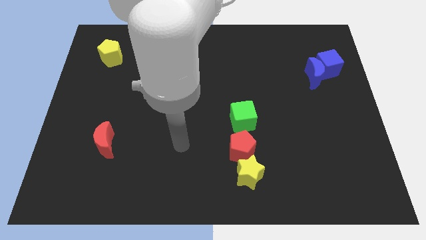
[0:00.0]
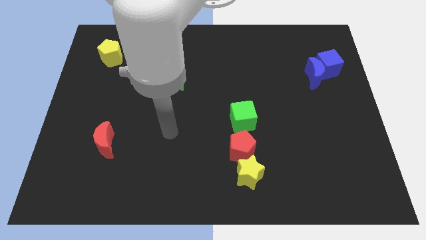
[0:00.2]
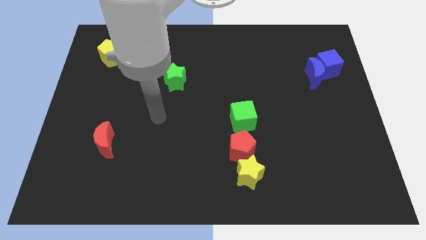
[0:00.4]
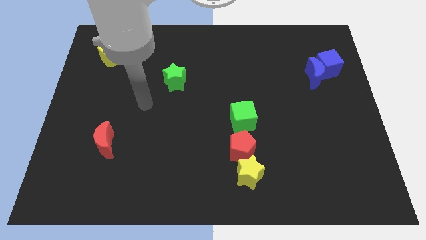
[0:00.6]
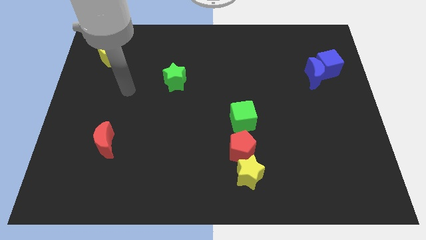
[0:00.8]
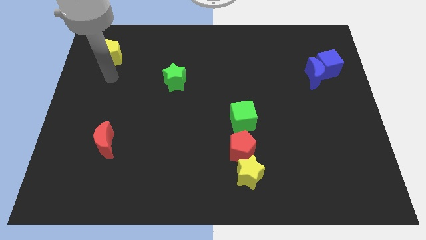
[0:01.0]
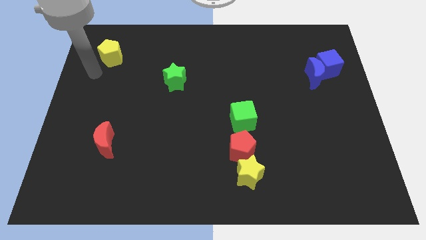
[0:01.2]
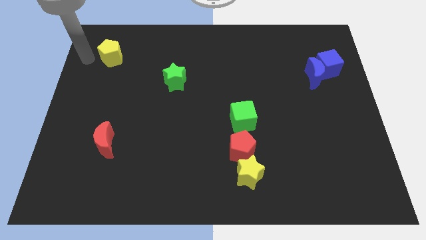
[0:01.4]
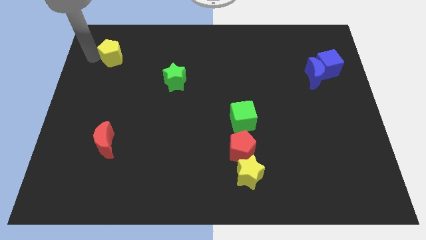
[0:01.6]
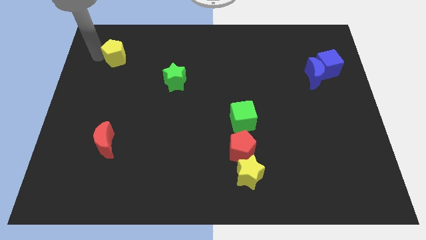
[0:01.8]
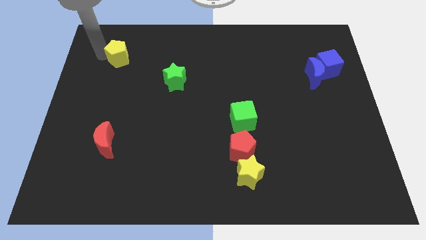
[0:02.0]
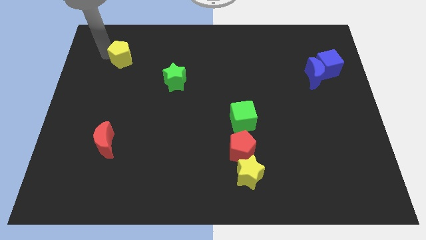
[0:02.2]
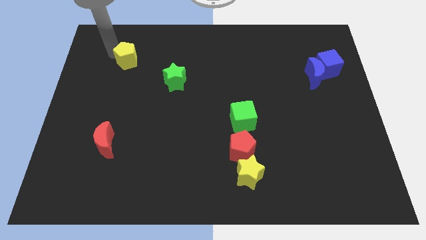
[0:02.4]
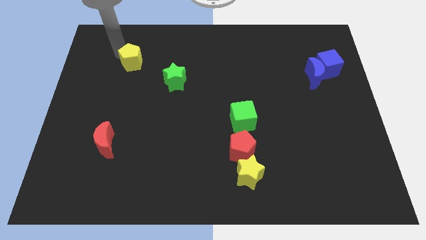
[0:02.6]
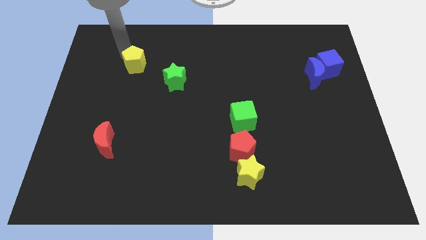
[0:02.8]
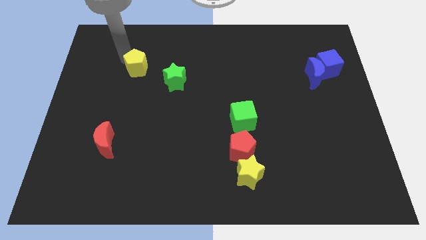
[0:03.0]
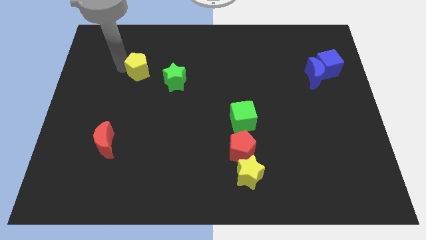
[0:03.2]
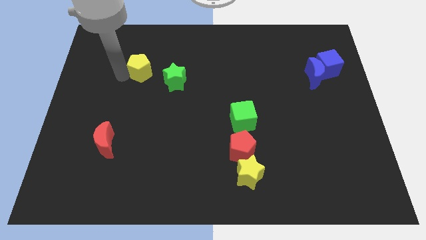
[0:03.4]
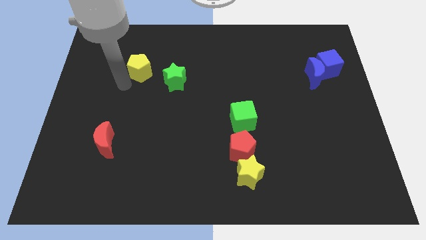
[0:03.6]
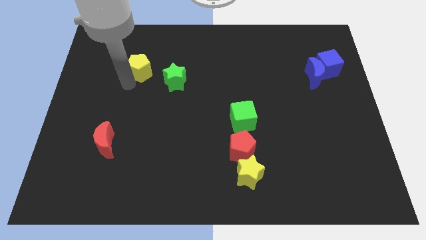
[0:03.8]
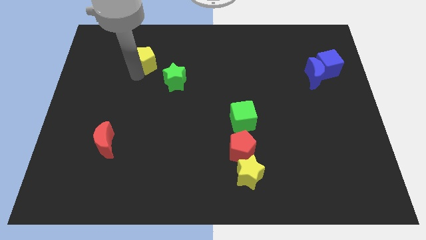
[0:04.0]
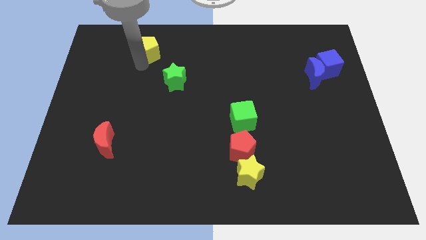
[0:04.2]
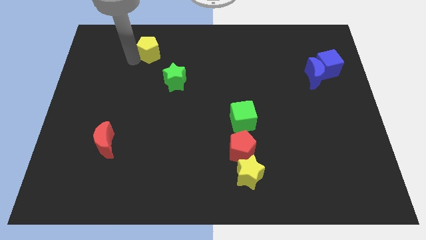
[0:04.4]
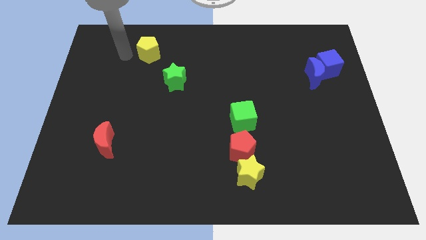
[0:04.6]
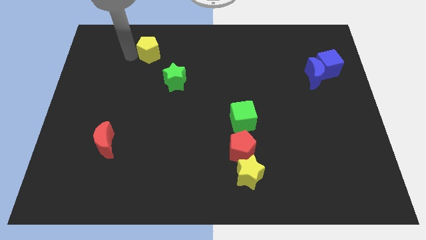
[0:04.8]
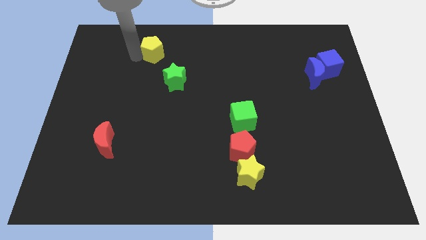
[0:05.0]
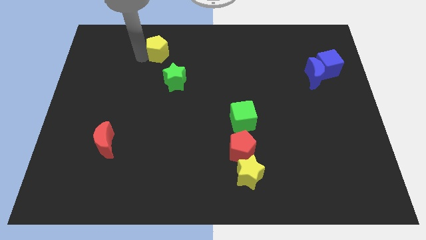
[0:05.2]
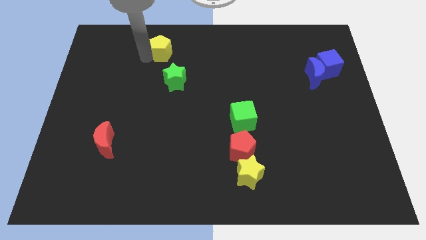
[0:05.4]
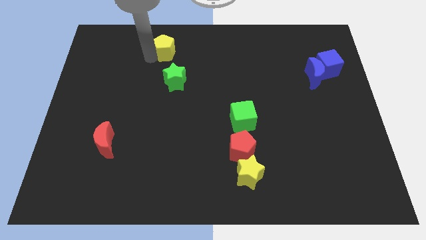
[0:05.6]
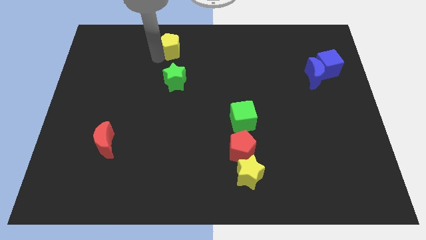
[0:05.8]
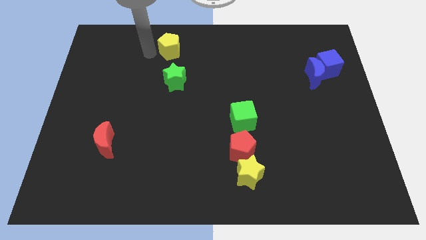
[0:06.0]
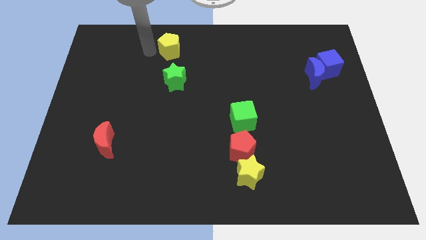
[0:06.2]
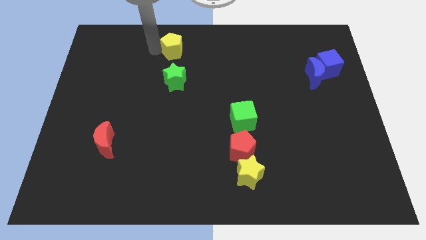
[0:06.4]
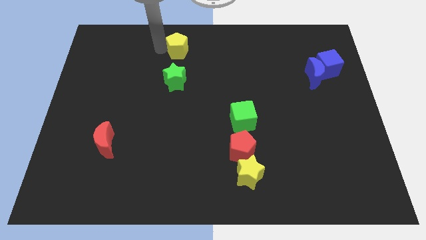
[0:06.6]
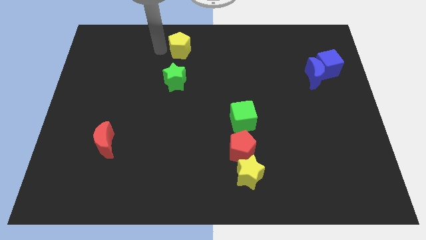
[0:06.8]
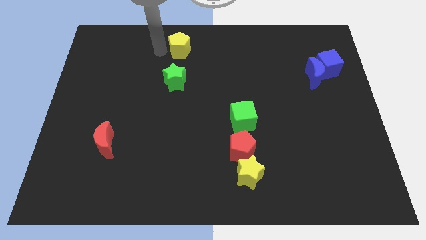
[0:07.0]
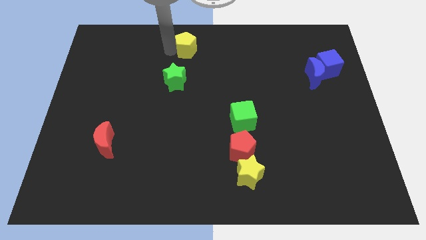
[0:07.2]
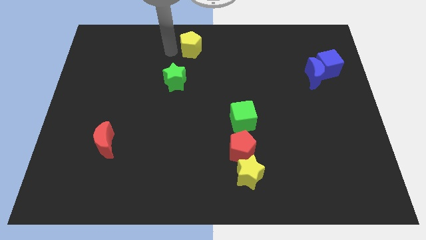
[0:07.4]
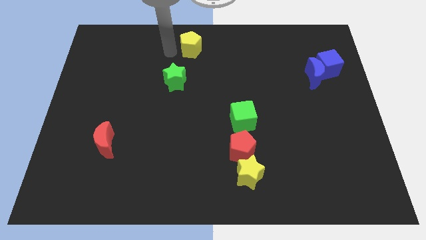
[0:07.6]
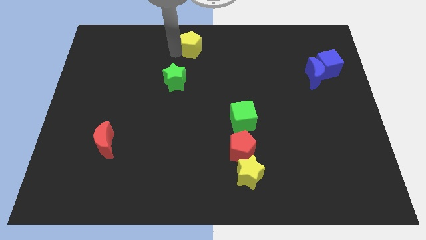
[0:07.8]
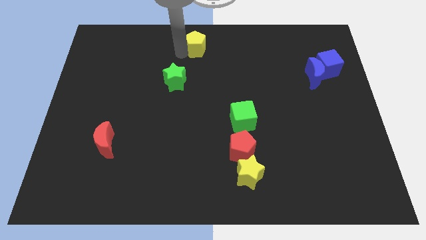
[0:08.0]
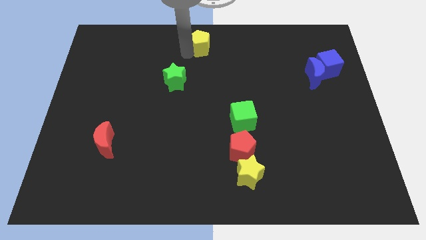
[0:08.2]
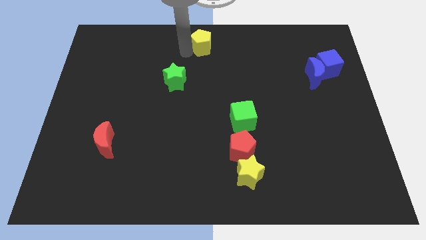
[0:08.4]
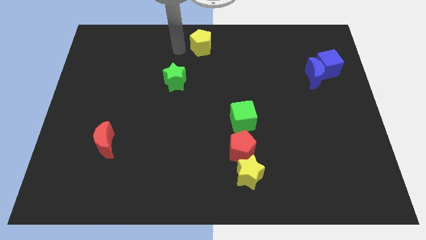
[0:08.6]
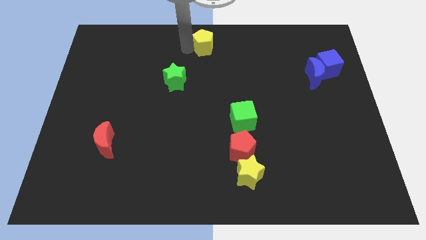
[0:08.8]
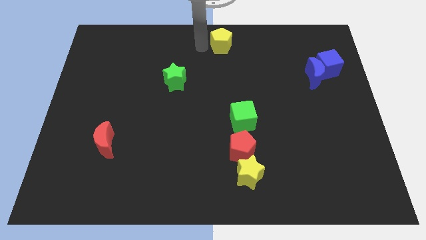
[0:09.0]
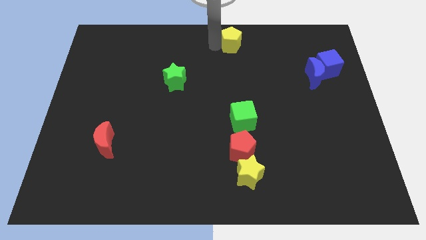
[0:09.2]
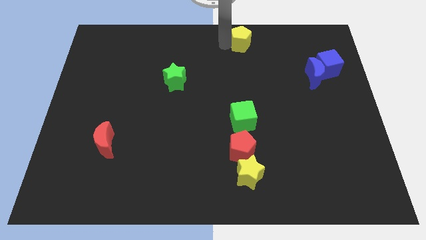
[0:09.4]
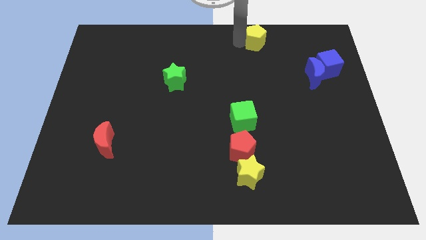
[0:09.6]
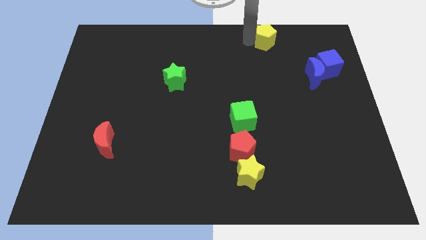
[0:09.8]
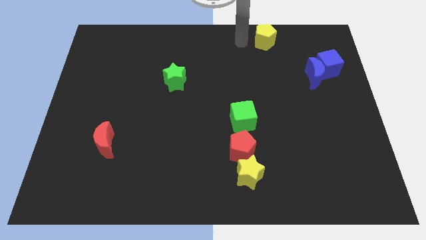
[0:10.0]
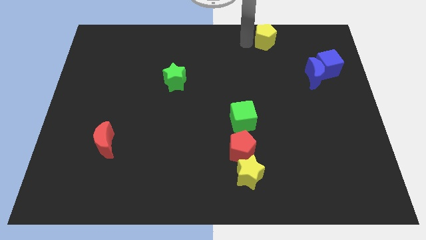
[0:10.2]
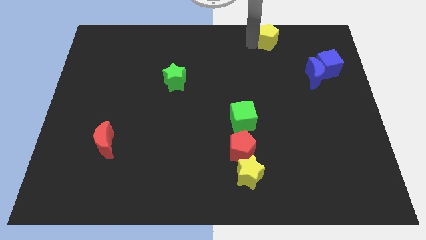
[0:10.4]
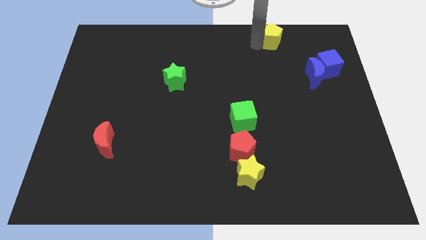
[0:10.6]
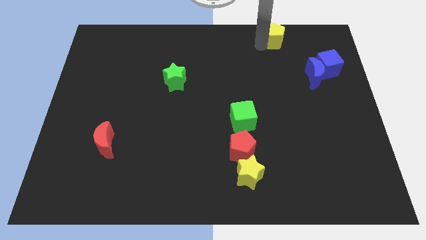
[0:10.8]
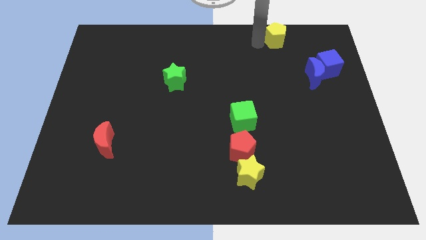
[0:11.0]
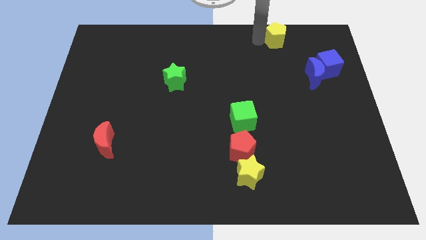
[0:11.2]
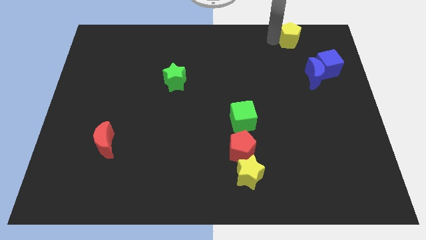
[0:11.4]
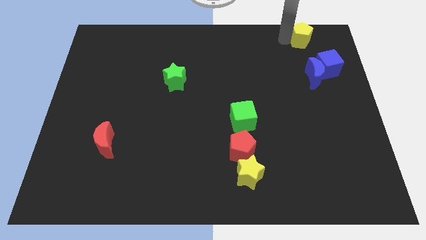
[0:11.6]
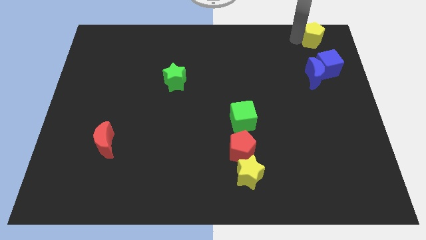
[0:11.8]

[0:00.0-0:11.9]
move the yellow pentagon to the top right
